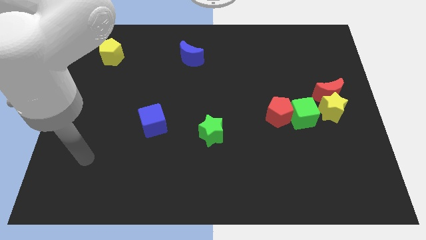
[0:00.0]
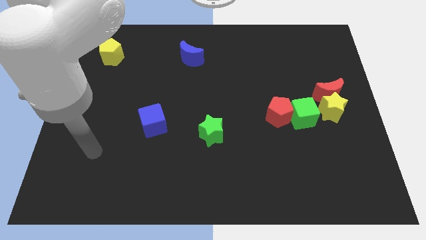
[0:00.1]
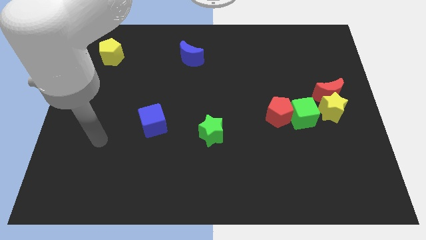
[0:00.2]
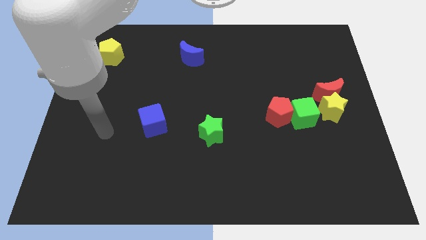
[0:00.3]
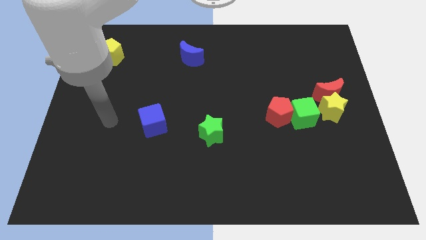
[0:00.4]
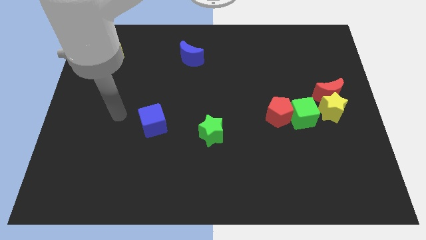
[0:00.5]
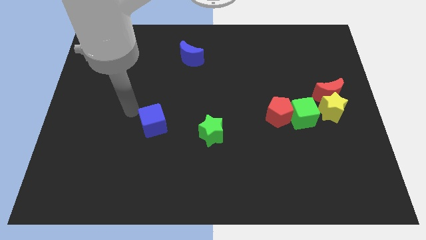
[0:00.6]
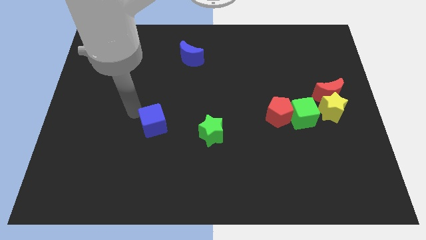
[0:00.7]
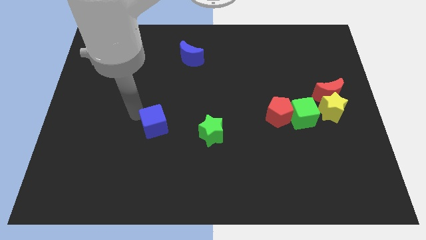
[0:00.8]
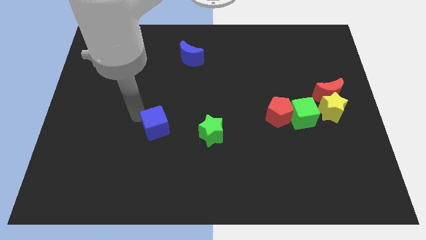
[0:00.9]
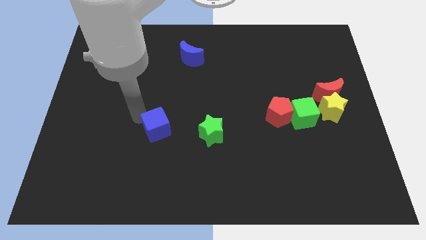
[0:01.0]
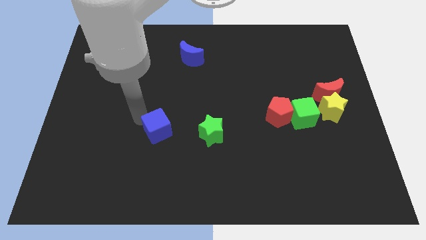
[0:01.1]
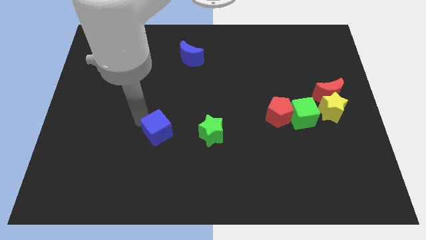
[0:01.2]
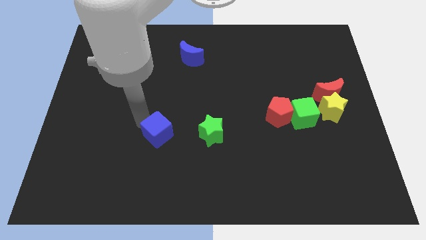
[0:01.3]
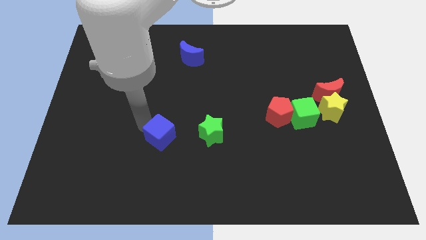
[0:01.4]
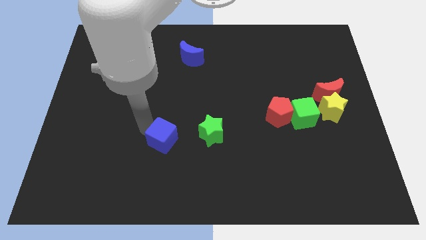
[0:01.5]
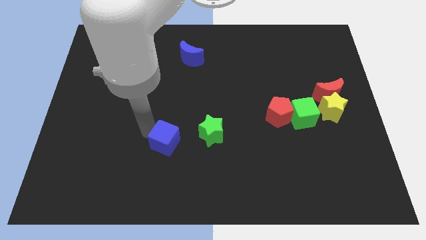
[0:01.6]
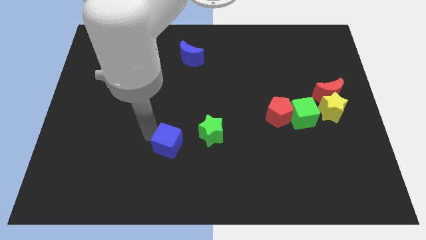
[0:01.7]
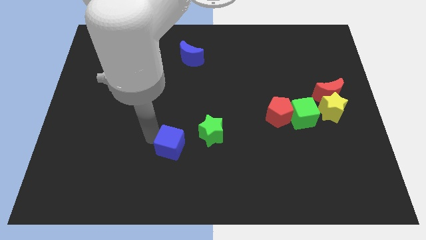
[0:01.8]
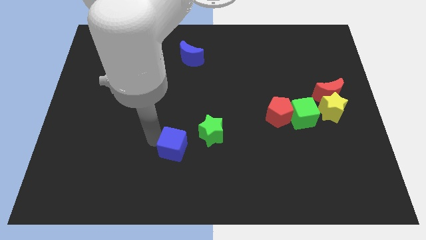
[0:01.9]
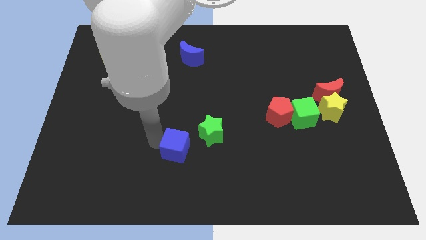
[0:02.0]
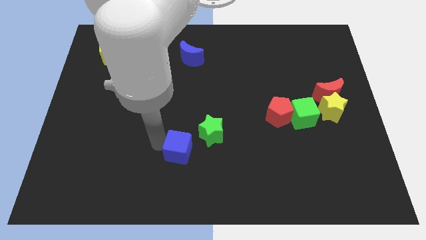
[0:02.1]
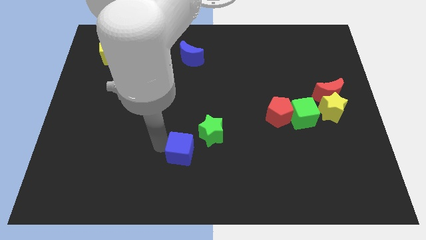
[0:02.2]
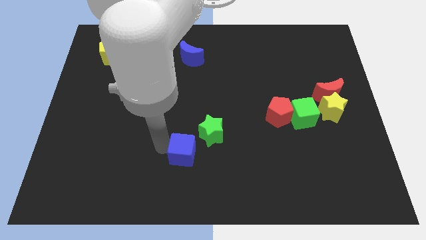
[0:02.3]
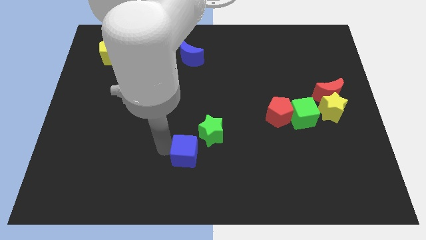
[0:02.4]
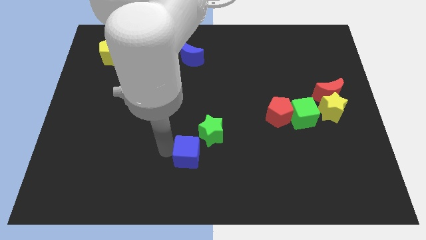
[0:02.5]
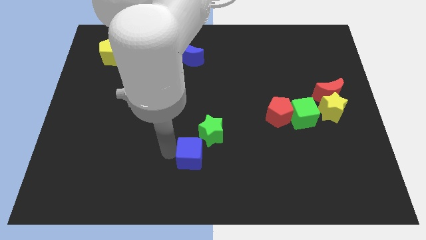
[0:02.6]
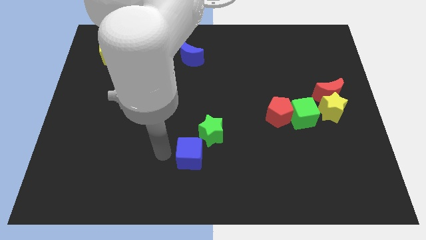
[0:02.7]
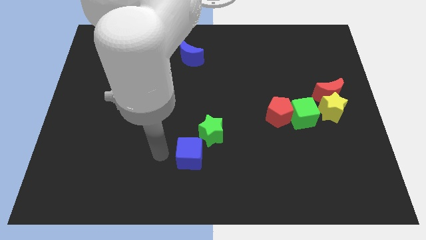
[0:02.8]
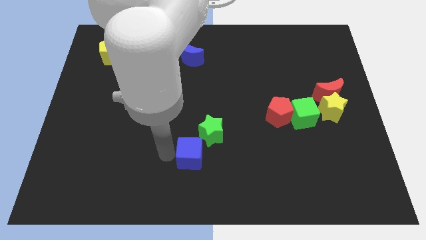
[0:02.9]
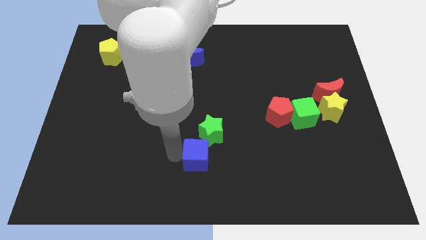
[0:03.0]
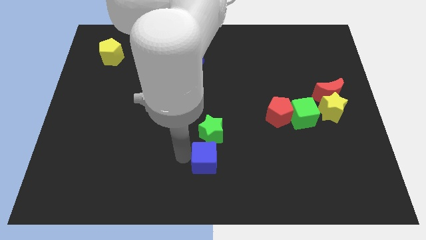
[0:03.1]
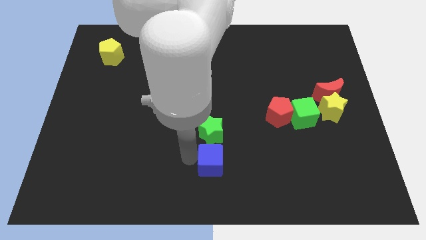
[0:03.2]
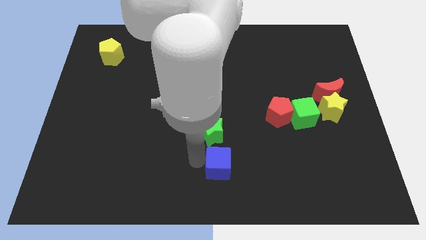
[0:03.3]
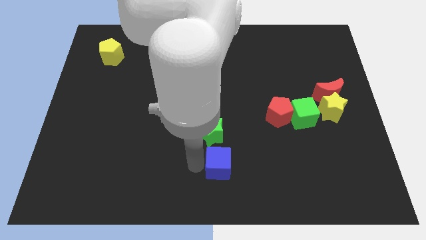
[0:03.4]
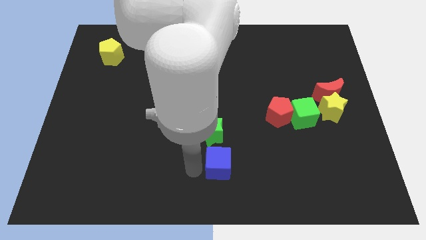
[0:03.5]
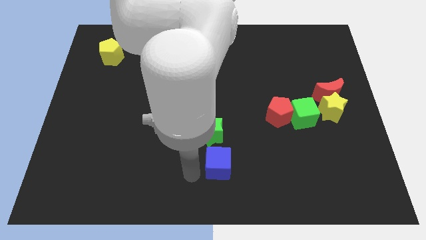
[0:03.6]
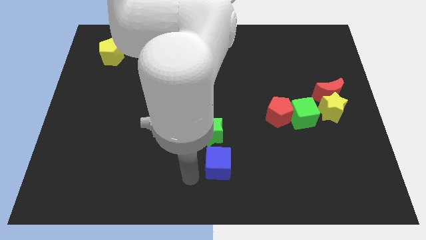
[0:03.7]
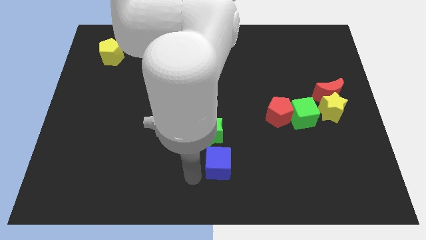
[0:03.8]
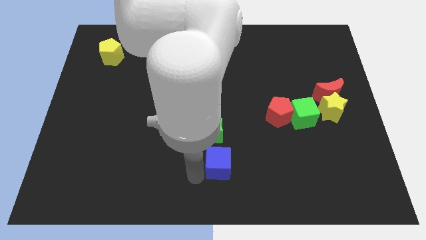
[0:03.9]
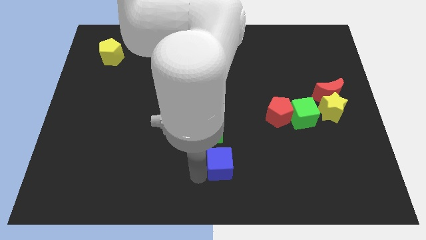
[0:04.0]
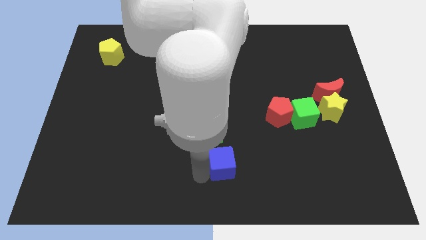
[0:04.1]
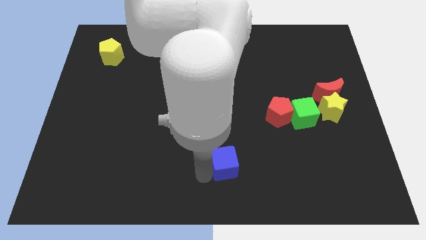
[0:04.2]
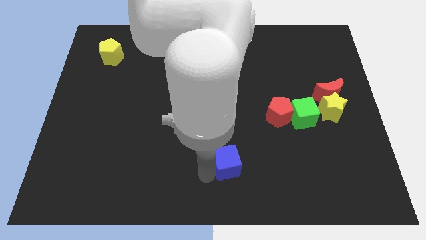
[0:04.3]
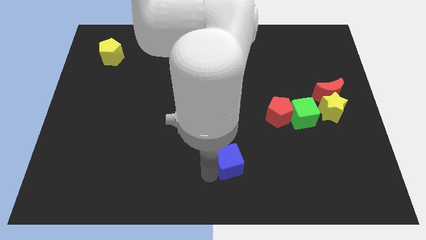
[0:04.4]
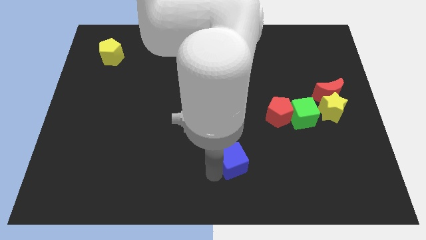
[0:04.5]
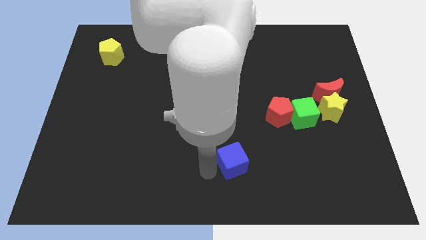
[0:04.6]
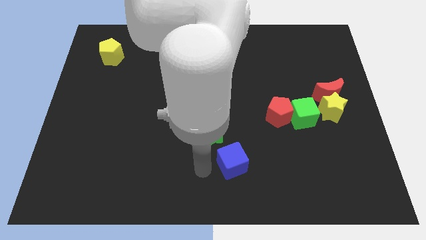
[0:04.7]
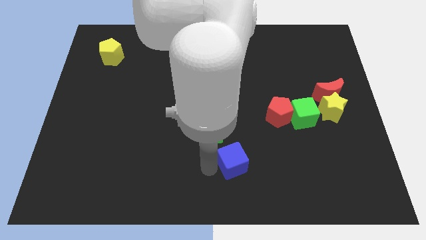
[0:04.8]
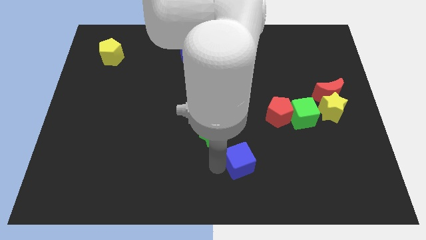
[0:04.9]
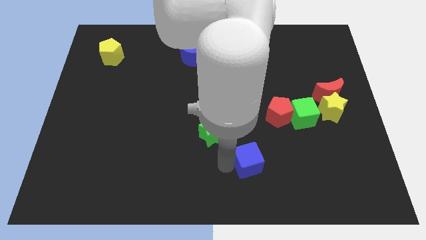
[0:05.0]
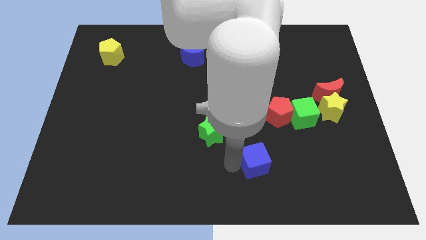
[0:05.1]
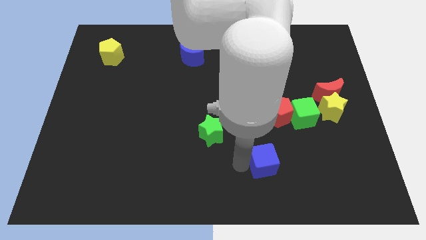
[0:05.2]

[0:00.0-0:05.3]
push the blue cube to the bottom side of the red pentagon

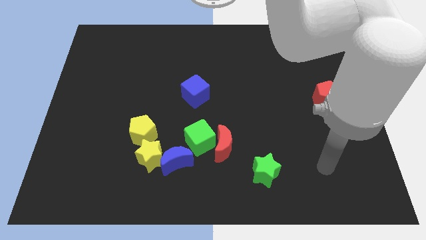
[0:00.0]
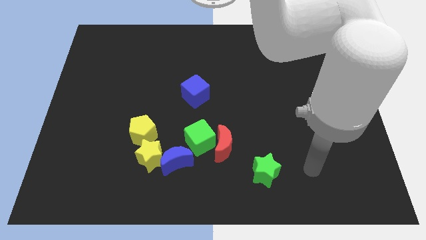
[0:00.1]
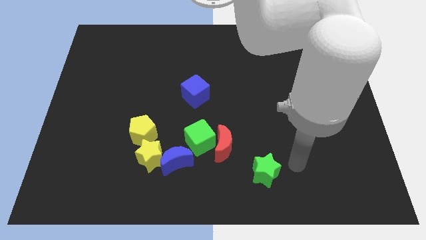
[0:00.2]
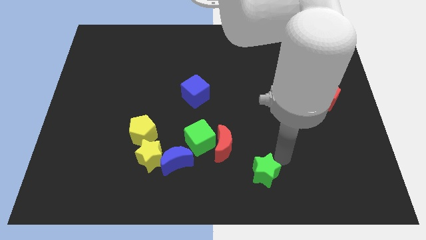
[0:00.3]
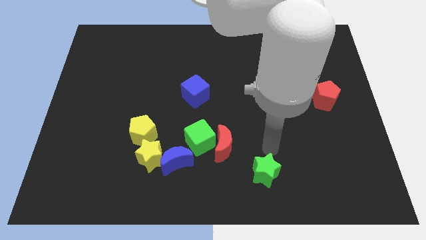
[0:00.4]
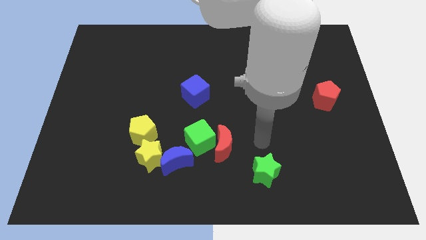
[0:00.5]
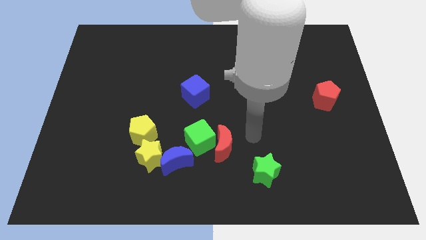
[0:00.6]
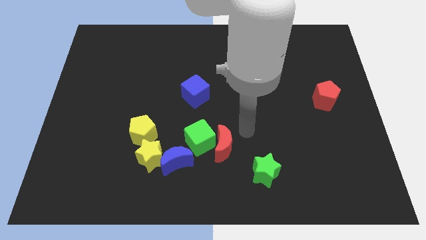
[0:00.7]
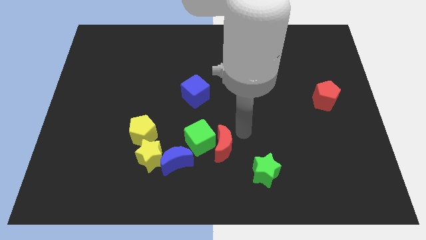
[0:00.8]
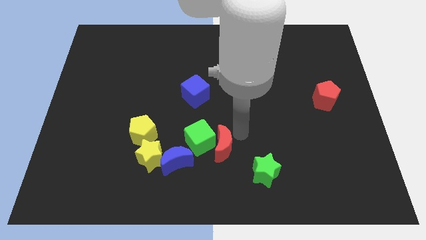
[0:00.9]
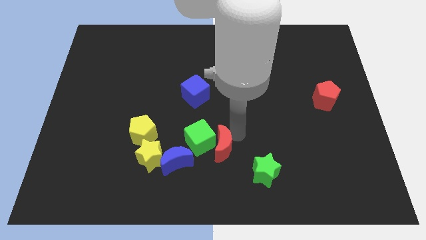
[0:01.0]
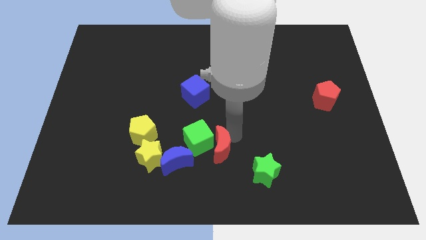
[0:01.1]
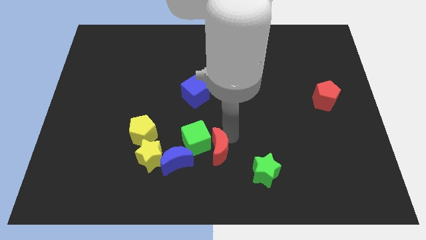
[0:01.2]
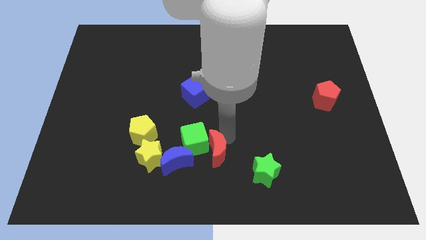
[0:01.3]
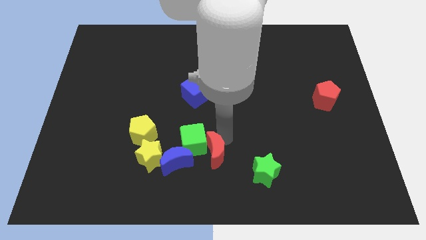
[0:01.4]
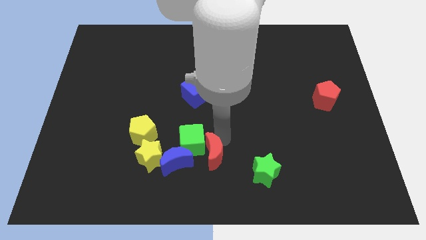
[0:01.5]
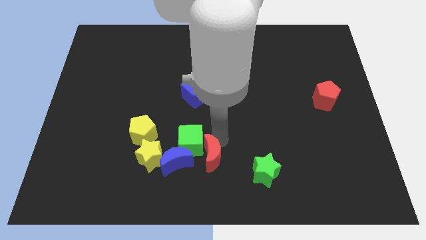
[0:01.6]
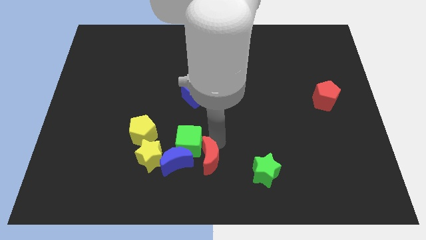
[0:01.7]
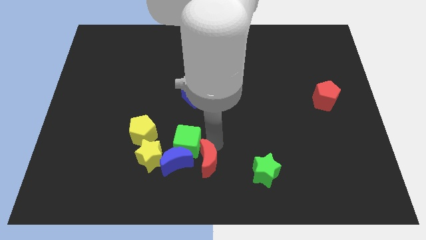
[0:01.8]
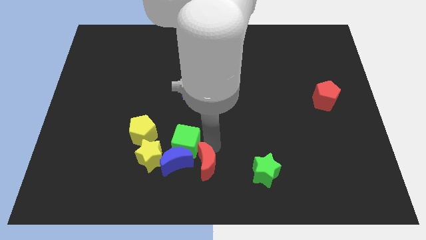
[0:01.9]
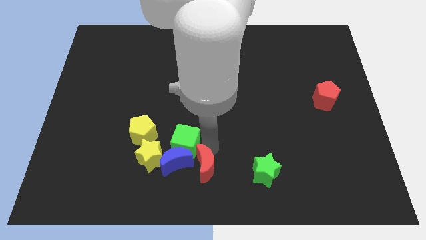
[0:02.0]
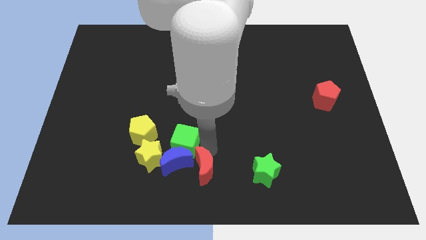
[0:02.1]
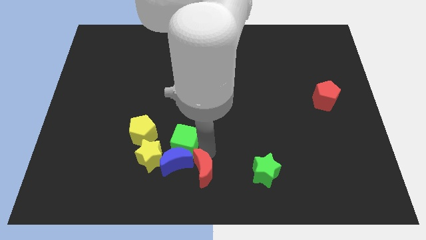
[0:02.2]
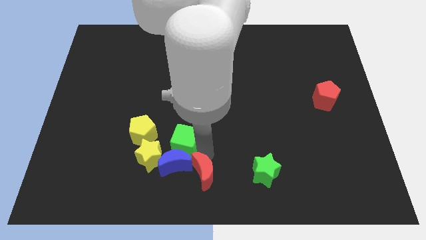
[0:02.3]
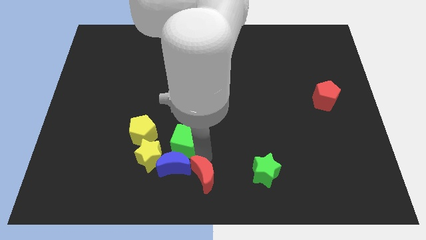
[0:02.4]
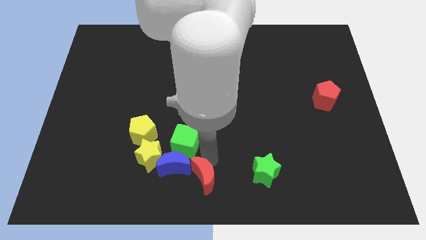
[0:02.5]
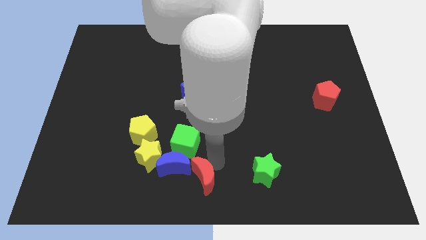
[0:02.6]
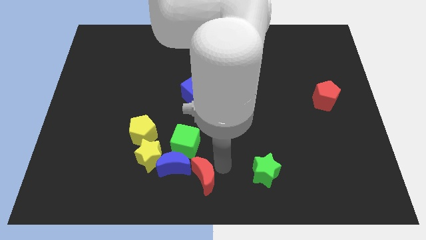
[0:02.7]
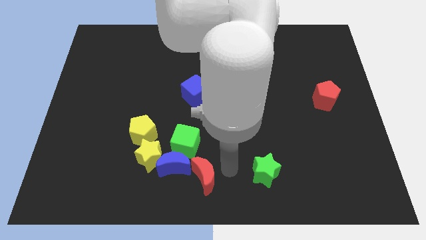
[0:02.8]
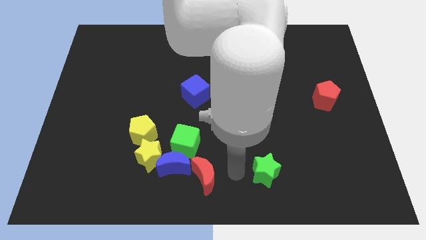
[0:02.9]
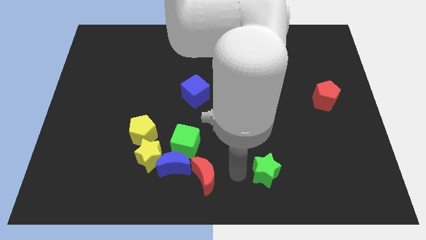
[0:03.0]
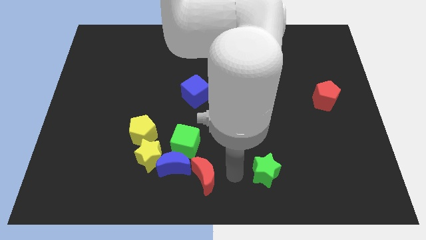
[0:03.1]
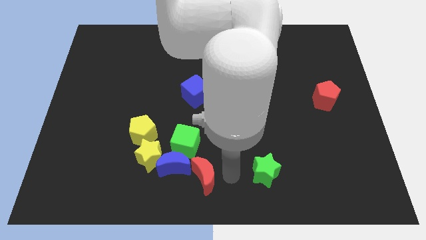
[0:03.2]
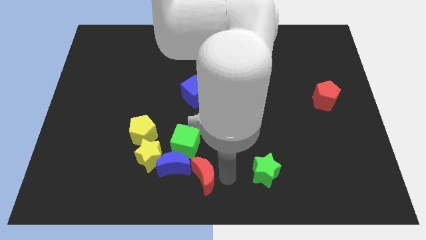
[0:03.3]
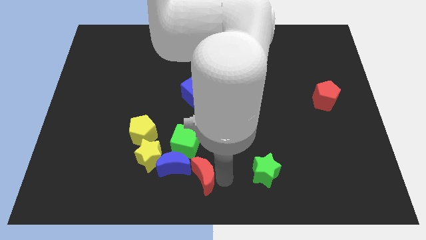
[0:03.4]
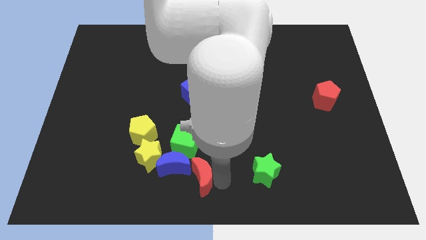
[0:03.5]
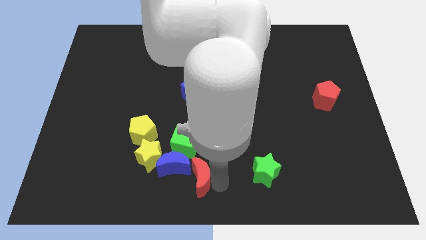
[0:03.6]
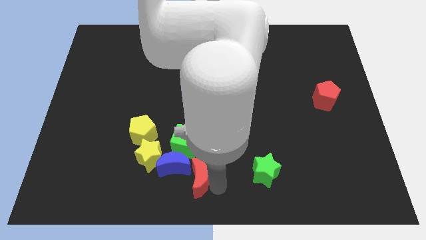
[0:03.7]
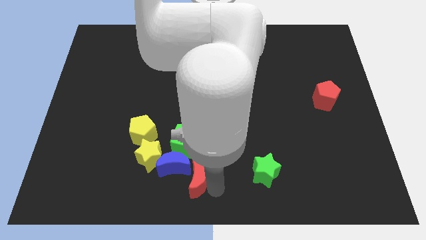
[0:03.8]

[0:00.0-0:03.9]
put the red moon diagonally down and to the right of the yellow star
